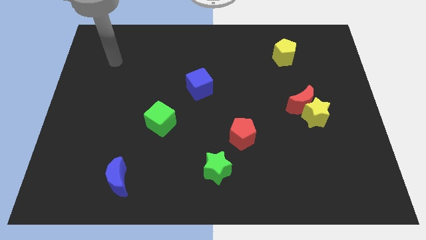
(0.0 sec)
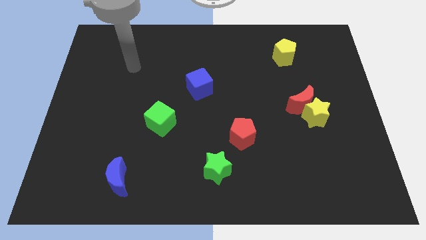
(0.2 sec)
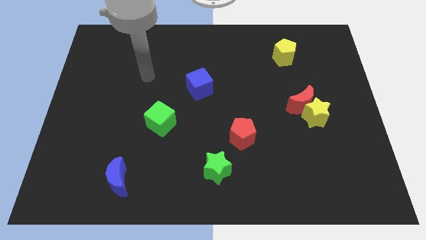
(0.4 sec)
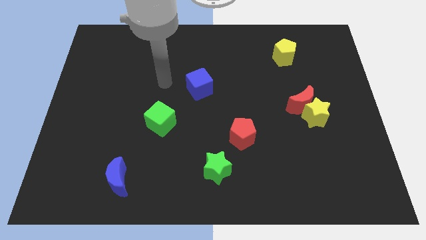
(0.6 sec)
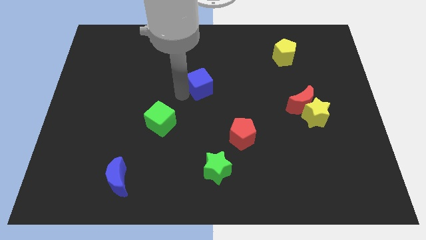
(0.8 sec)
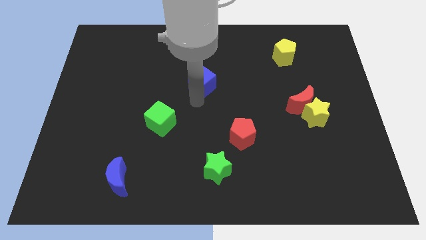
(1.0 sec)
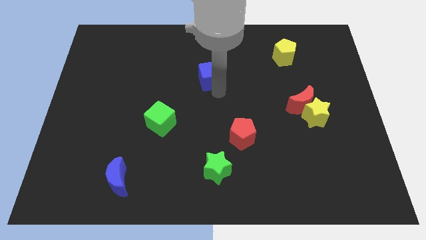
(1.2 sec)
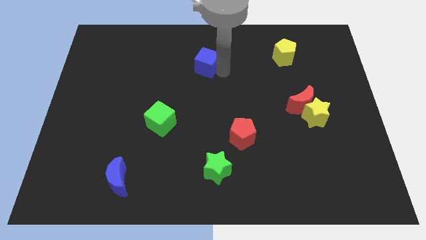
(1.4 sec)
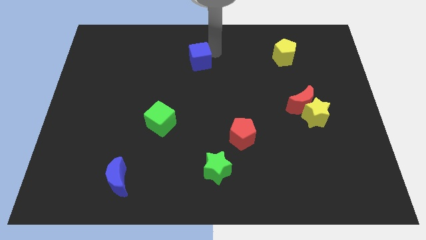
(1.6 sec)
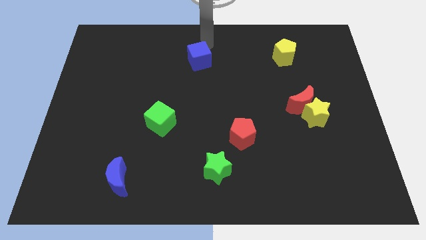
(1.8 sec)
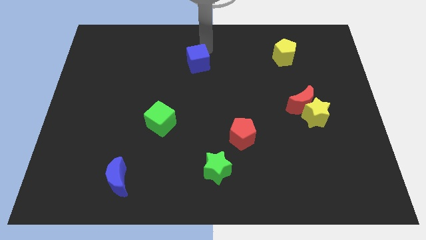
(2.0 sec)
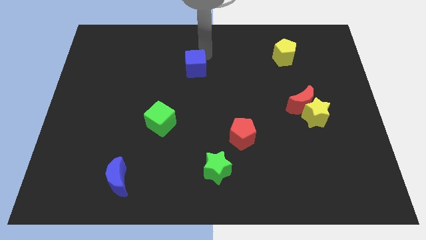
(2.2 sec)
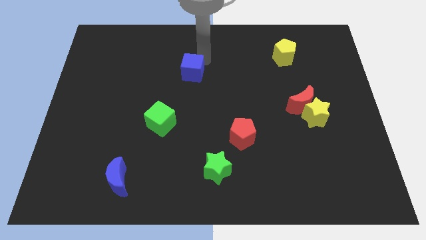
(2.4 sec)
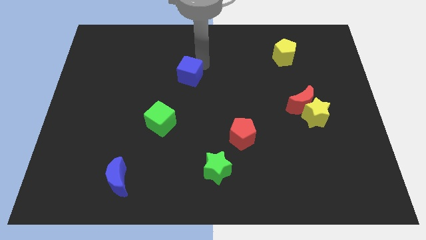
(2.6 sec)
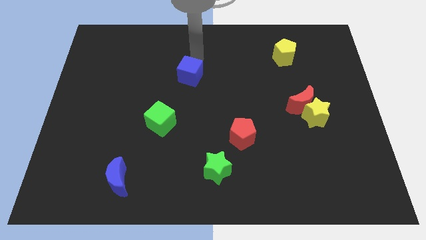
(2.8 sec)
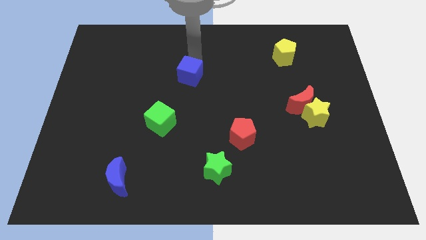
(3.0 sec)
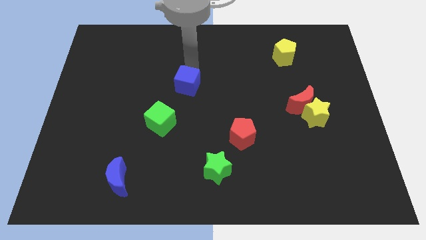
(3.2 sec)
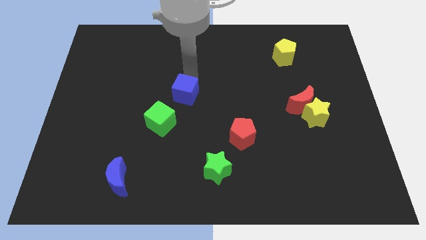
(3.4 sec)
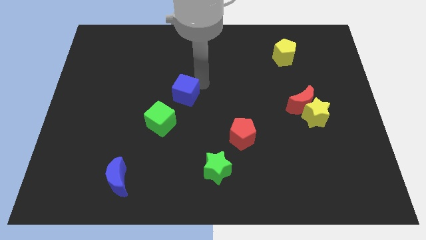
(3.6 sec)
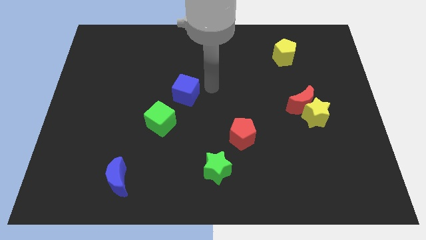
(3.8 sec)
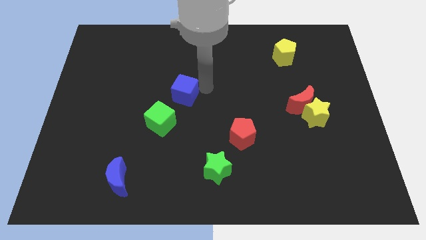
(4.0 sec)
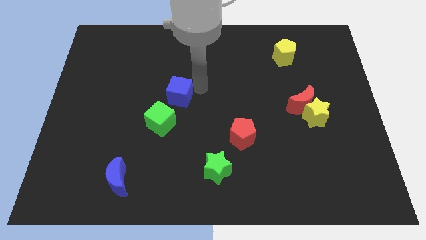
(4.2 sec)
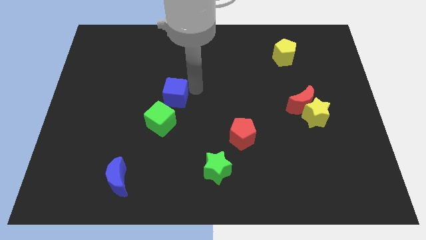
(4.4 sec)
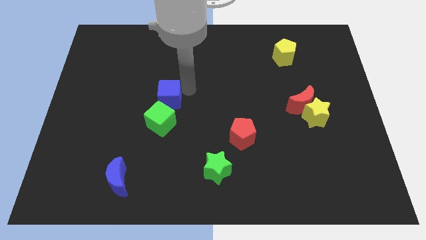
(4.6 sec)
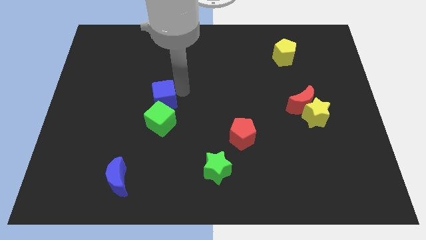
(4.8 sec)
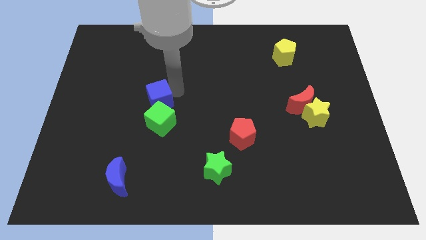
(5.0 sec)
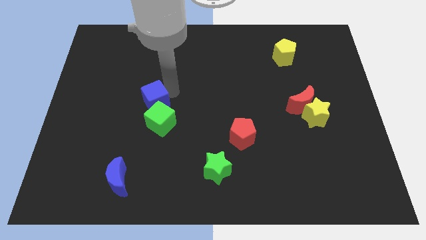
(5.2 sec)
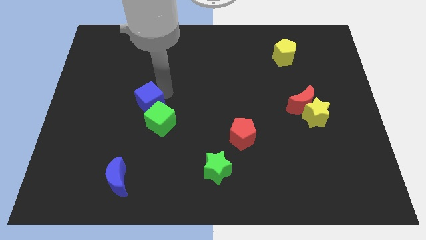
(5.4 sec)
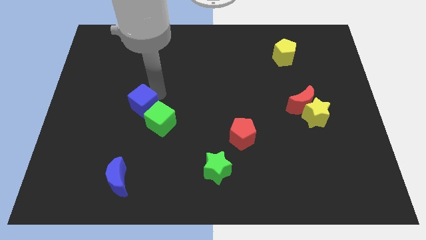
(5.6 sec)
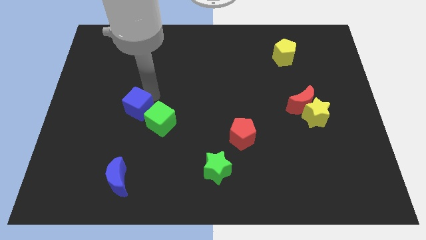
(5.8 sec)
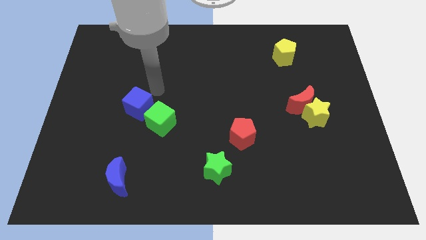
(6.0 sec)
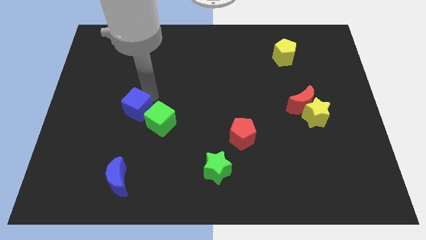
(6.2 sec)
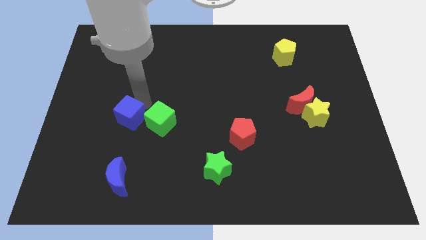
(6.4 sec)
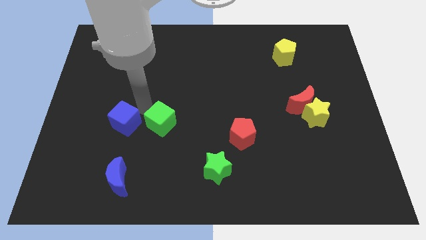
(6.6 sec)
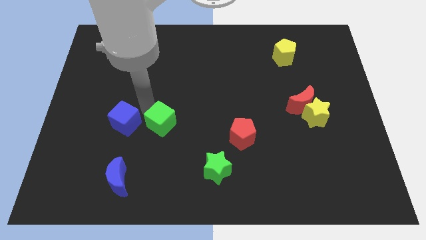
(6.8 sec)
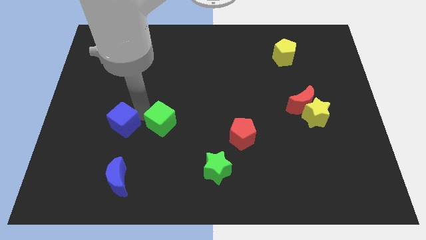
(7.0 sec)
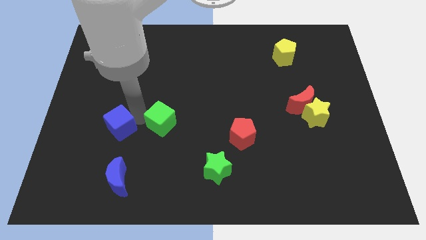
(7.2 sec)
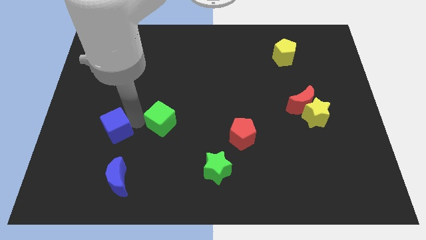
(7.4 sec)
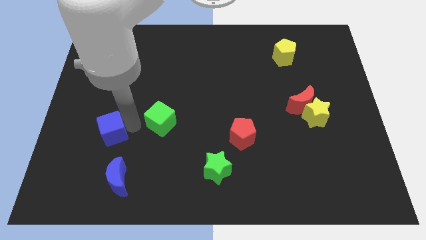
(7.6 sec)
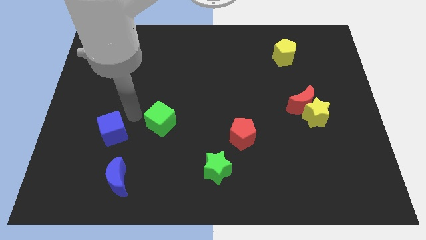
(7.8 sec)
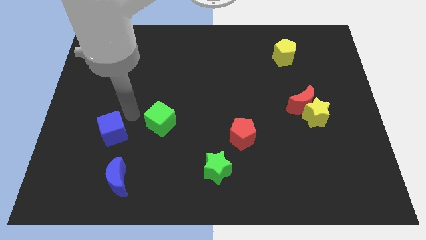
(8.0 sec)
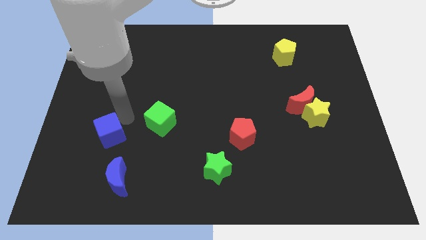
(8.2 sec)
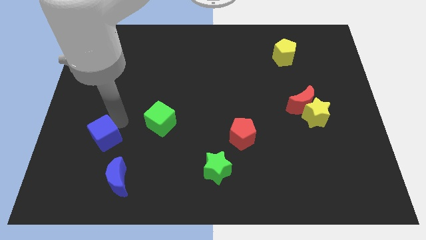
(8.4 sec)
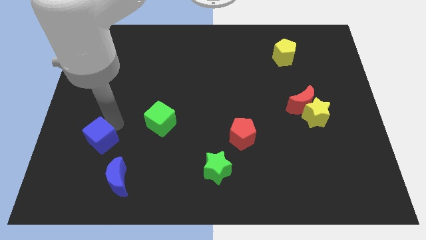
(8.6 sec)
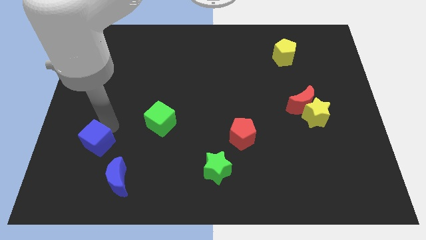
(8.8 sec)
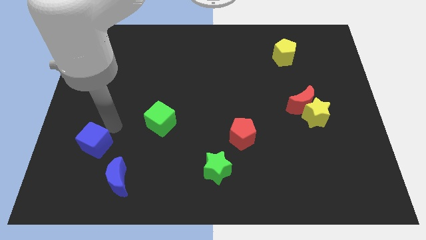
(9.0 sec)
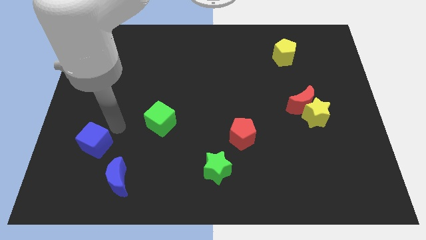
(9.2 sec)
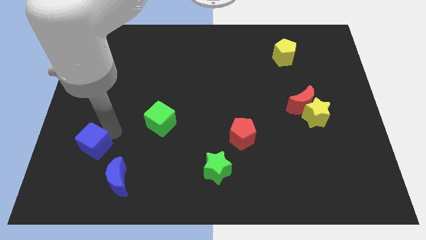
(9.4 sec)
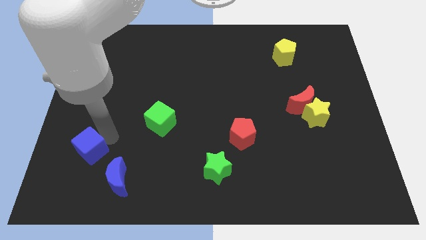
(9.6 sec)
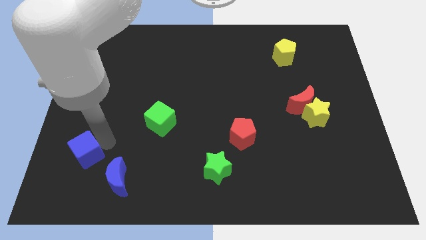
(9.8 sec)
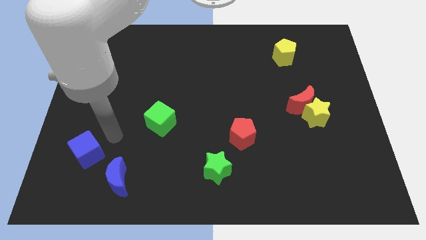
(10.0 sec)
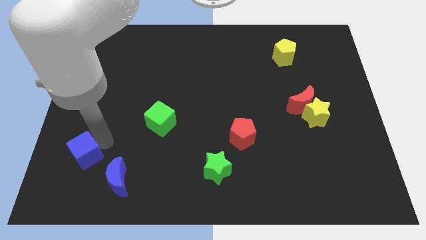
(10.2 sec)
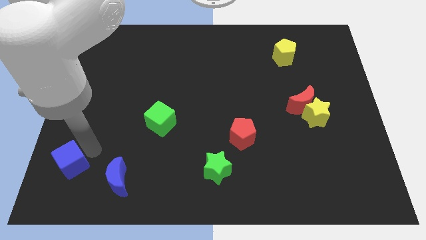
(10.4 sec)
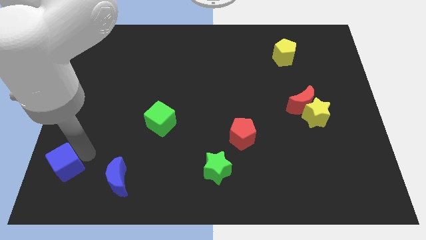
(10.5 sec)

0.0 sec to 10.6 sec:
put the blue cube to the lower left corner

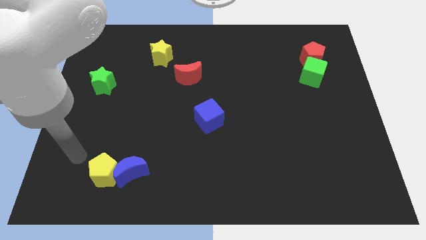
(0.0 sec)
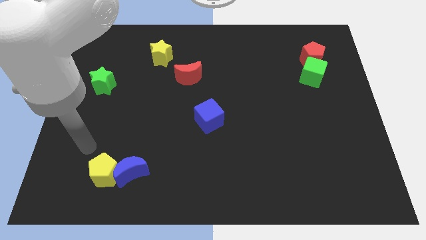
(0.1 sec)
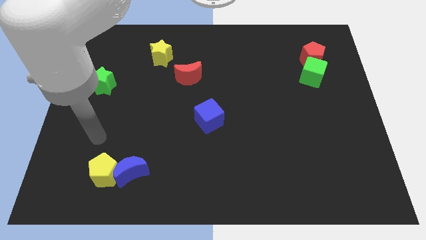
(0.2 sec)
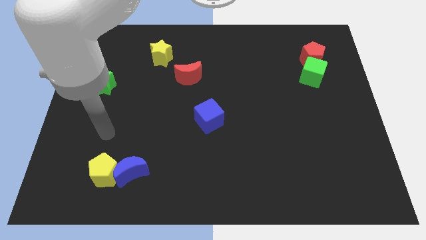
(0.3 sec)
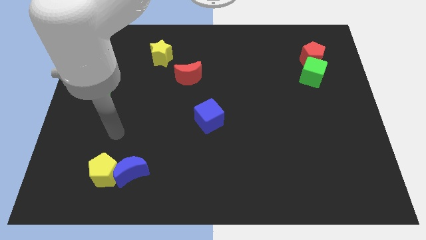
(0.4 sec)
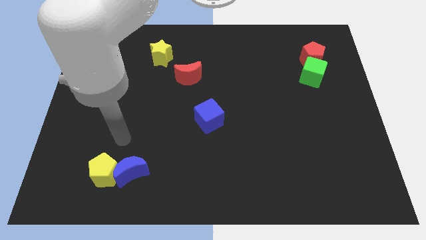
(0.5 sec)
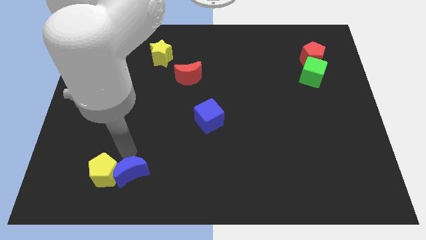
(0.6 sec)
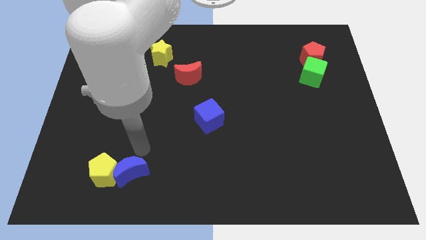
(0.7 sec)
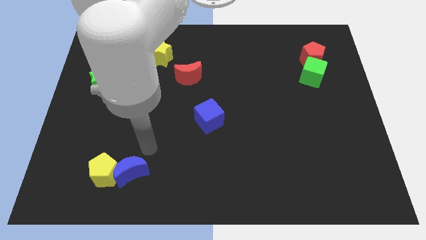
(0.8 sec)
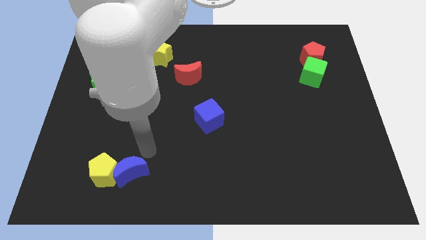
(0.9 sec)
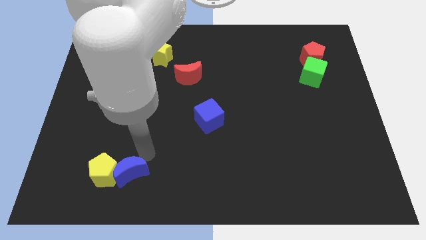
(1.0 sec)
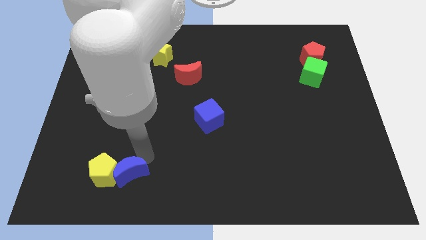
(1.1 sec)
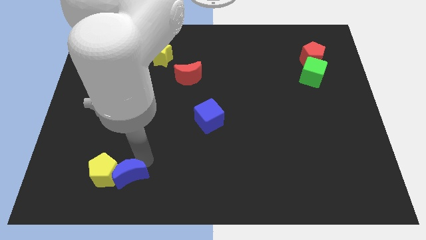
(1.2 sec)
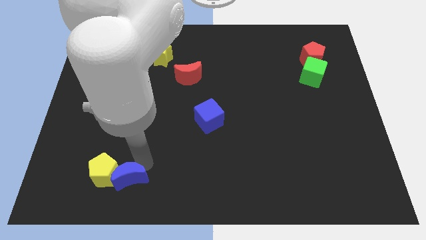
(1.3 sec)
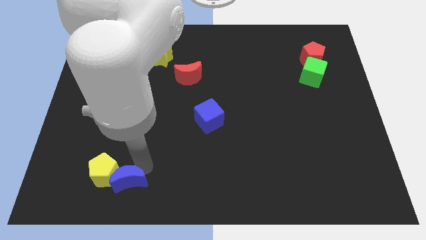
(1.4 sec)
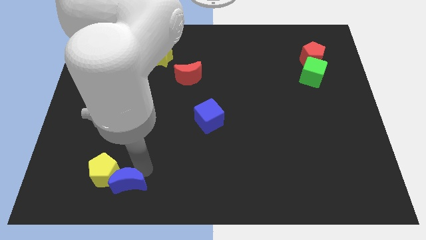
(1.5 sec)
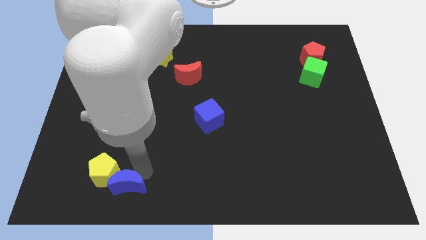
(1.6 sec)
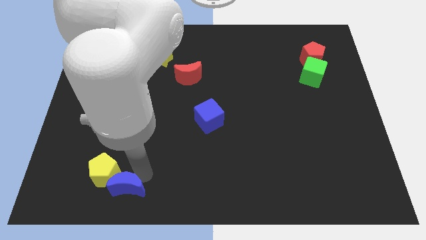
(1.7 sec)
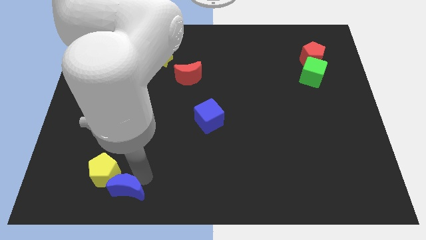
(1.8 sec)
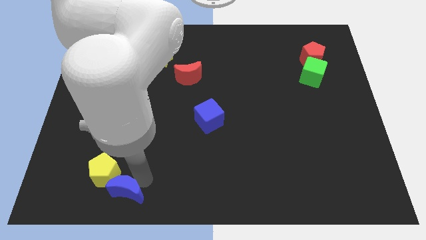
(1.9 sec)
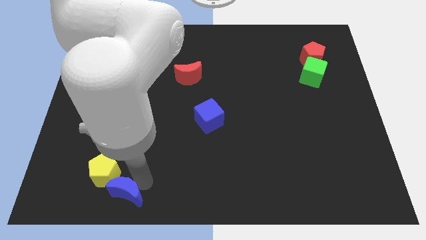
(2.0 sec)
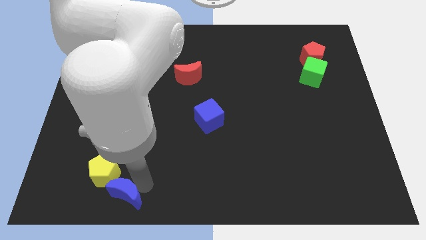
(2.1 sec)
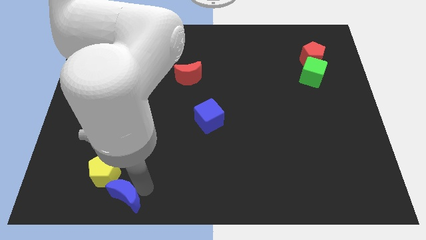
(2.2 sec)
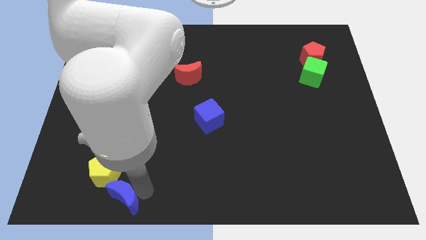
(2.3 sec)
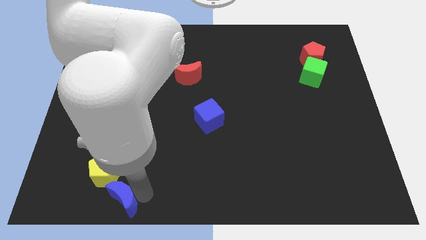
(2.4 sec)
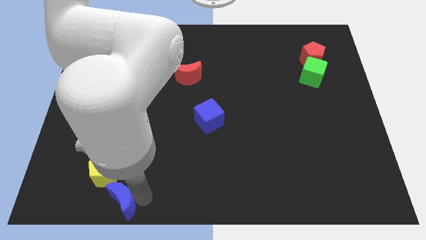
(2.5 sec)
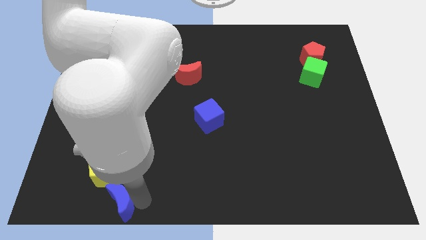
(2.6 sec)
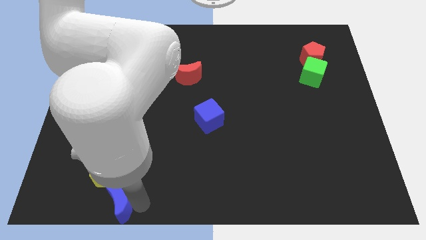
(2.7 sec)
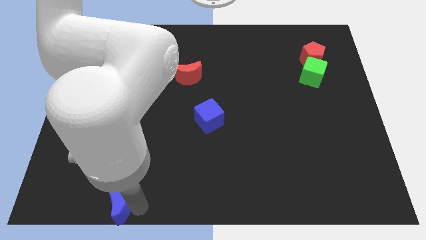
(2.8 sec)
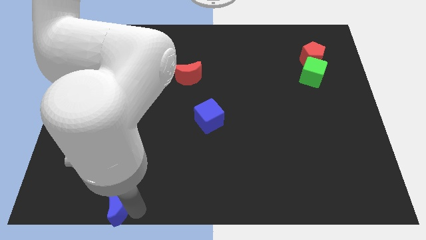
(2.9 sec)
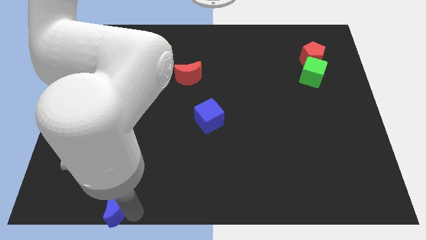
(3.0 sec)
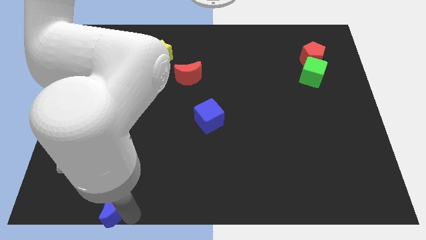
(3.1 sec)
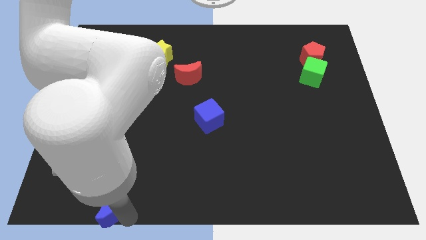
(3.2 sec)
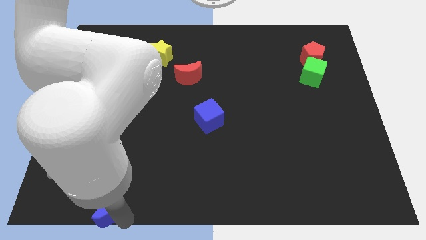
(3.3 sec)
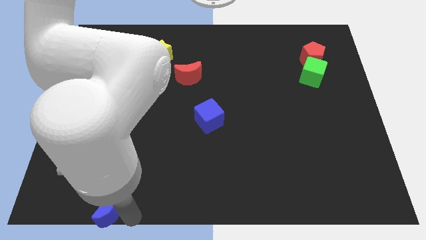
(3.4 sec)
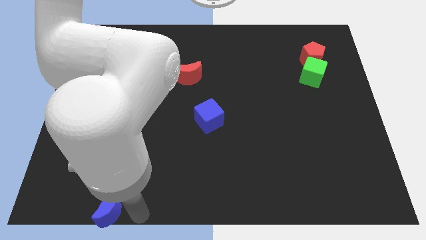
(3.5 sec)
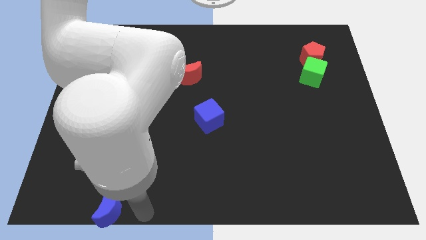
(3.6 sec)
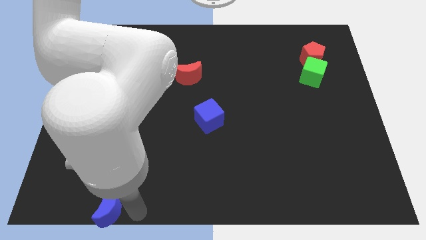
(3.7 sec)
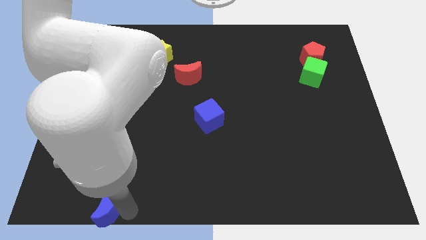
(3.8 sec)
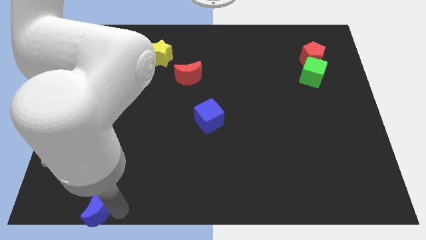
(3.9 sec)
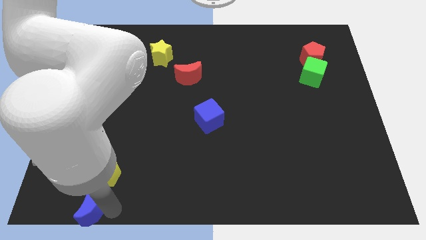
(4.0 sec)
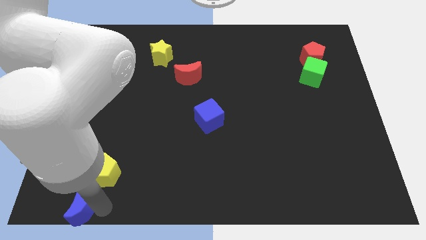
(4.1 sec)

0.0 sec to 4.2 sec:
slide the blue moon to the bottom left corner
